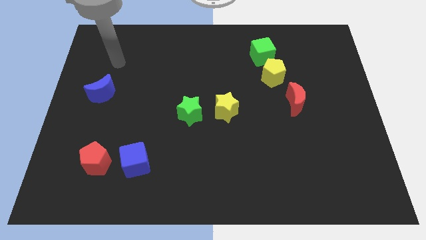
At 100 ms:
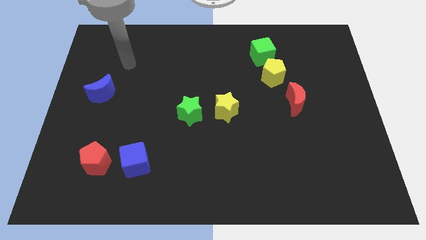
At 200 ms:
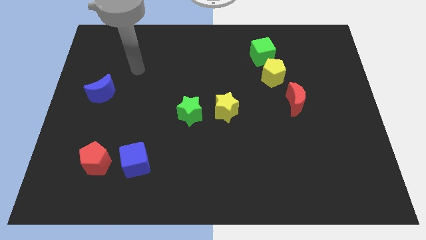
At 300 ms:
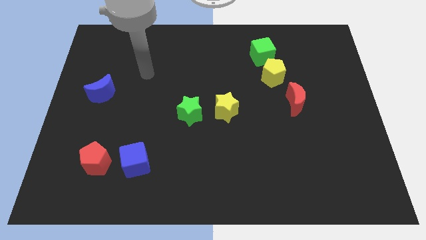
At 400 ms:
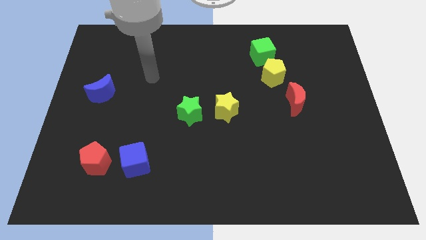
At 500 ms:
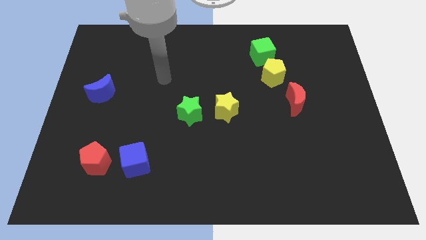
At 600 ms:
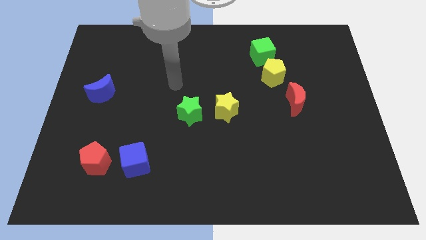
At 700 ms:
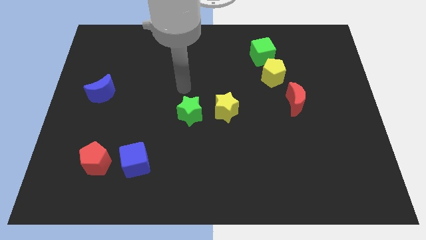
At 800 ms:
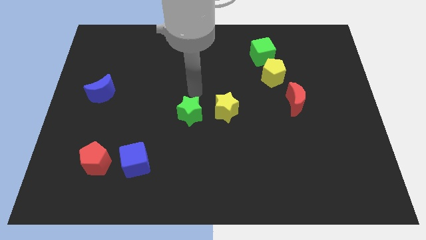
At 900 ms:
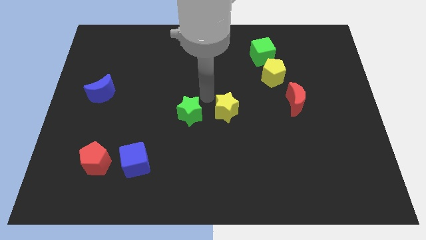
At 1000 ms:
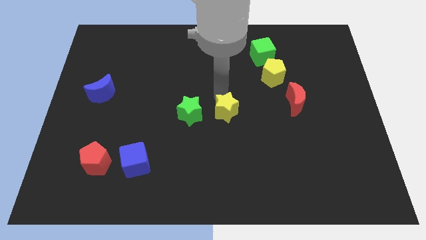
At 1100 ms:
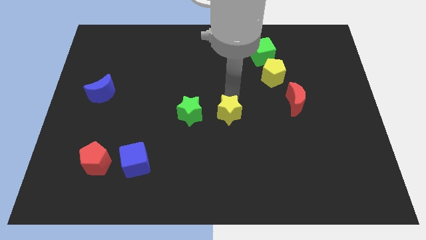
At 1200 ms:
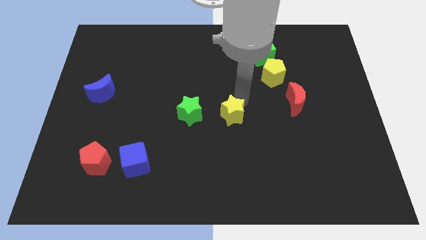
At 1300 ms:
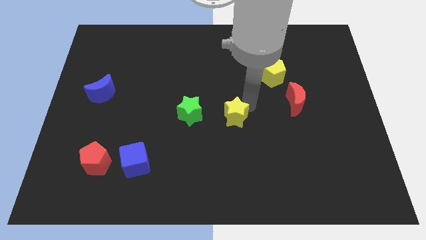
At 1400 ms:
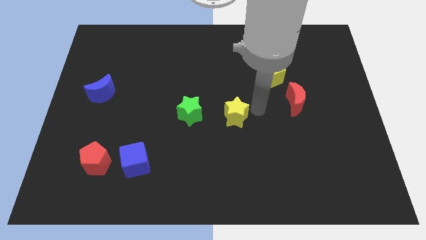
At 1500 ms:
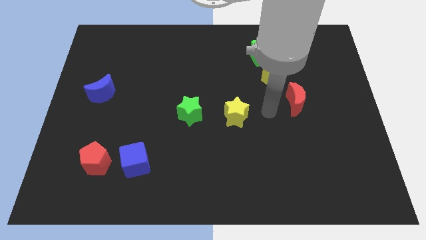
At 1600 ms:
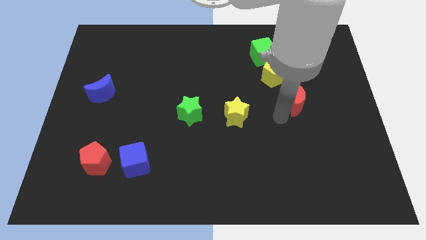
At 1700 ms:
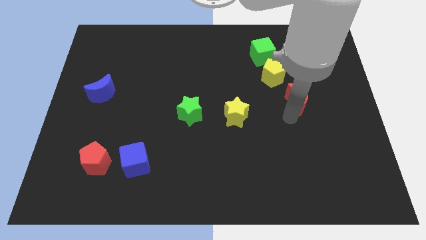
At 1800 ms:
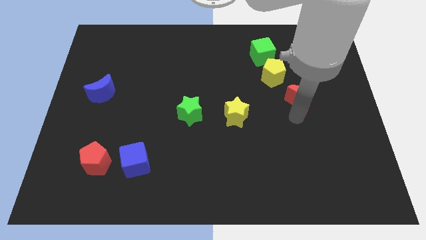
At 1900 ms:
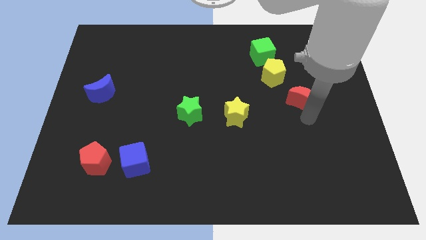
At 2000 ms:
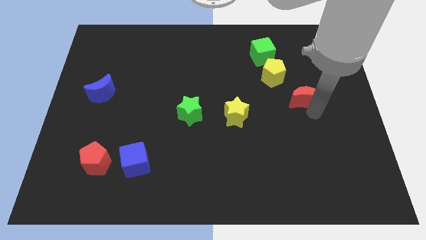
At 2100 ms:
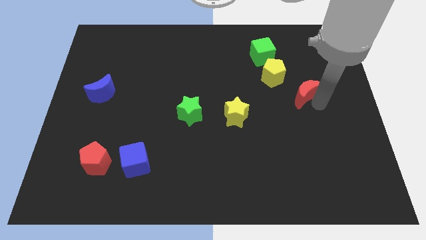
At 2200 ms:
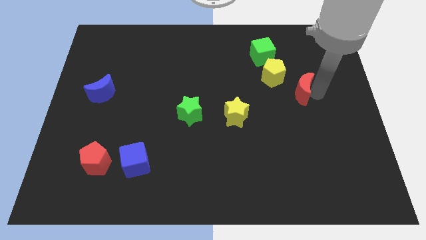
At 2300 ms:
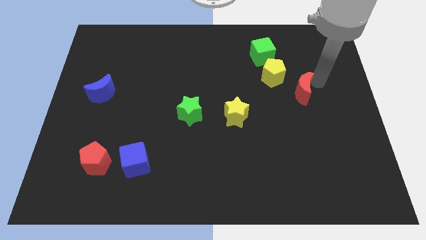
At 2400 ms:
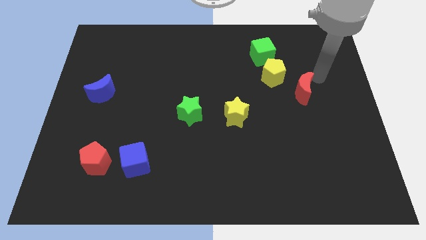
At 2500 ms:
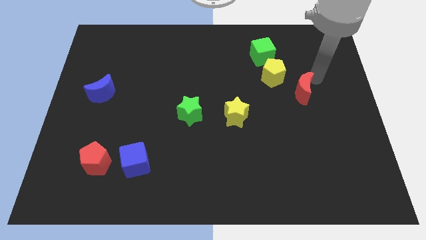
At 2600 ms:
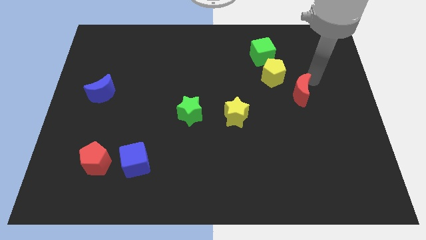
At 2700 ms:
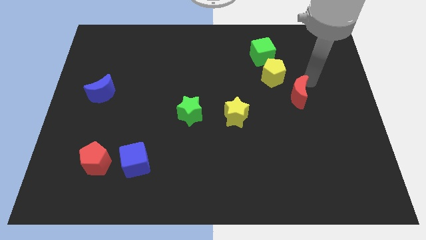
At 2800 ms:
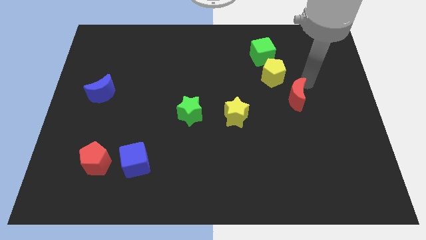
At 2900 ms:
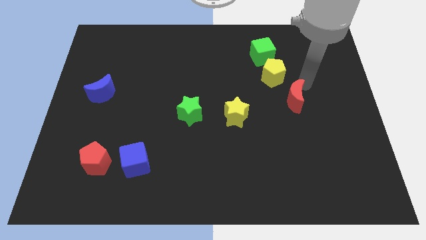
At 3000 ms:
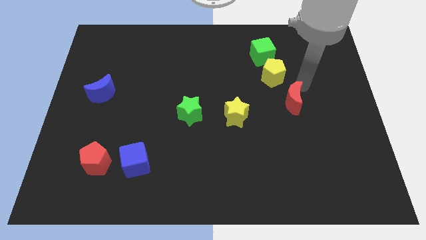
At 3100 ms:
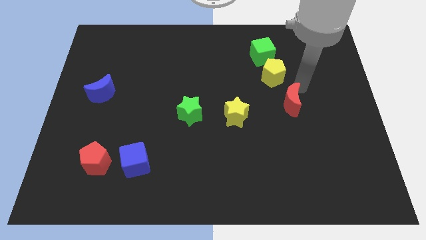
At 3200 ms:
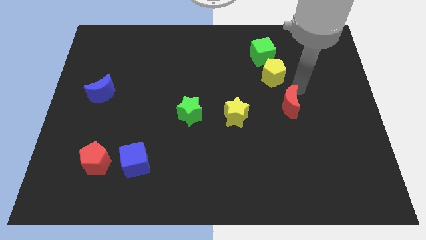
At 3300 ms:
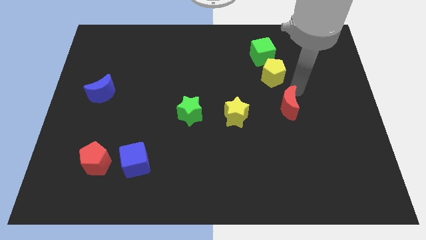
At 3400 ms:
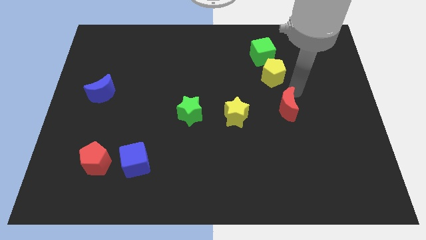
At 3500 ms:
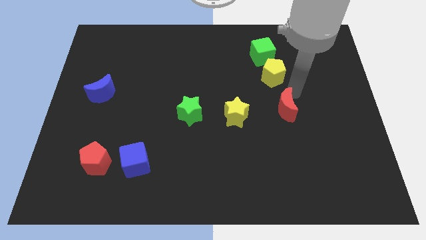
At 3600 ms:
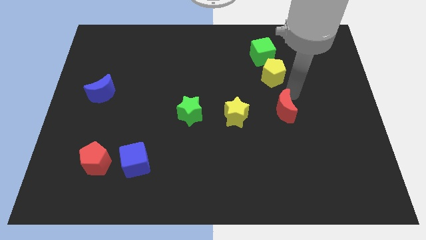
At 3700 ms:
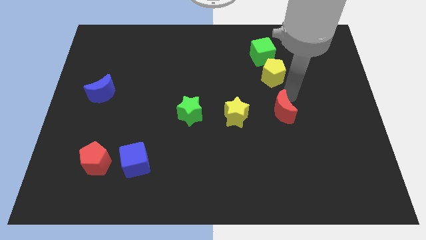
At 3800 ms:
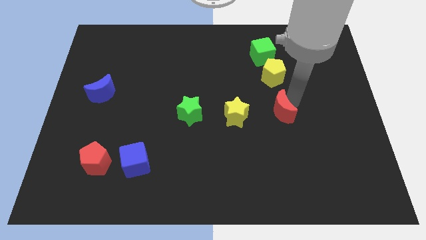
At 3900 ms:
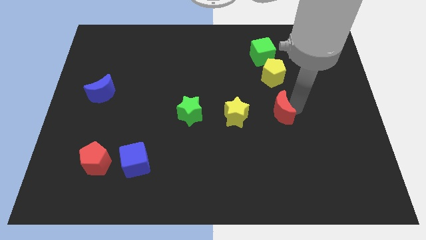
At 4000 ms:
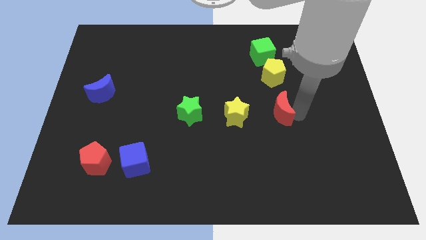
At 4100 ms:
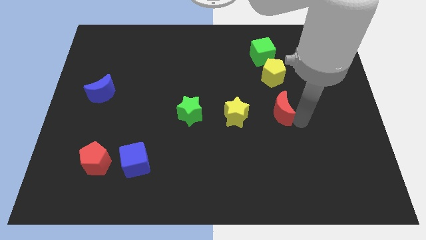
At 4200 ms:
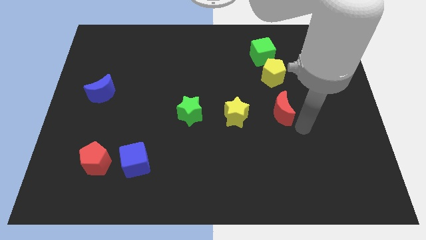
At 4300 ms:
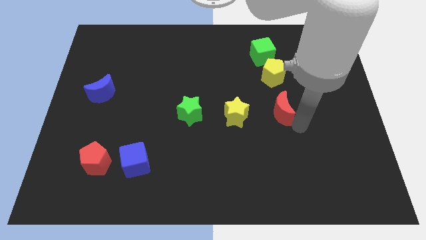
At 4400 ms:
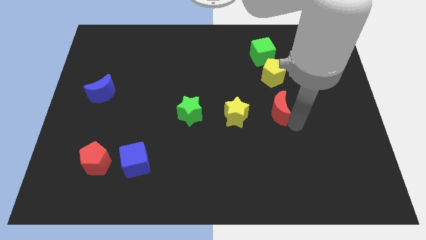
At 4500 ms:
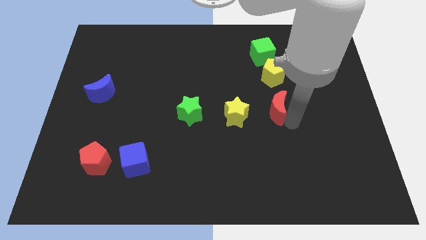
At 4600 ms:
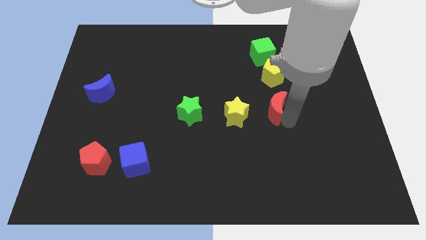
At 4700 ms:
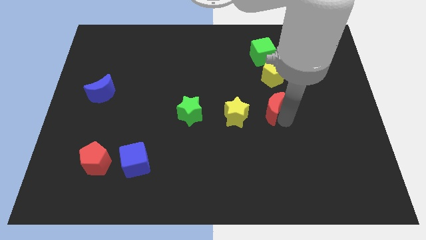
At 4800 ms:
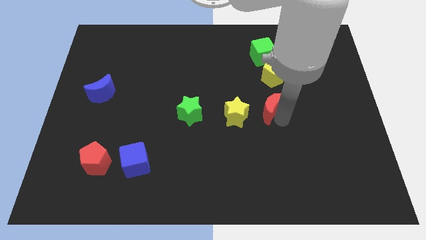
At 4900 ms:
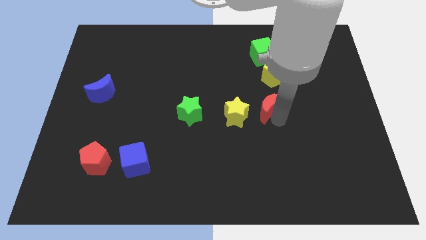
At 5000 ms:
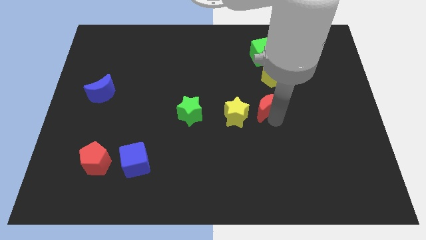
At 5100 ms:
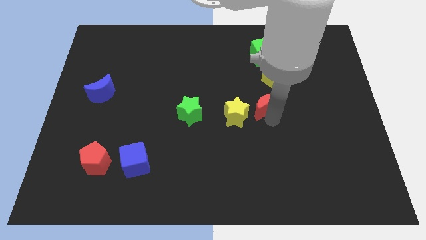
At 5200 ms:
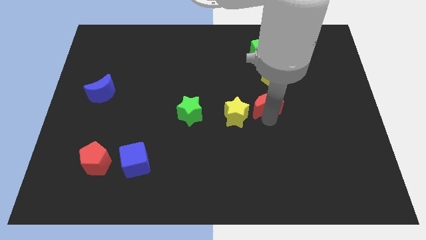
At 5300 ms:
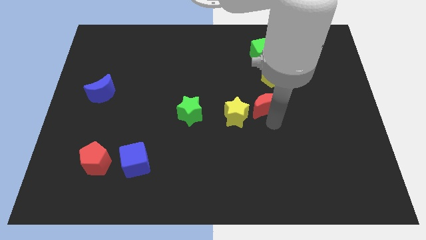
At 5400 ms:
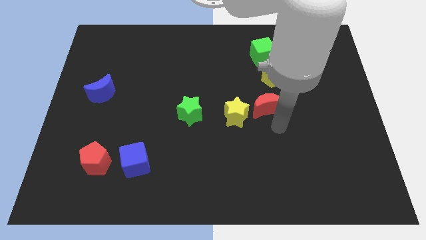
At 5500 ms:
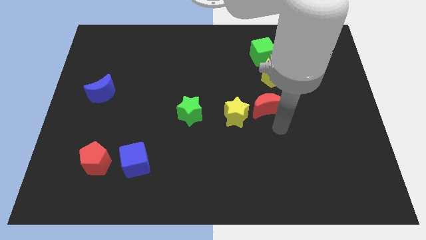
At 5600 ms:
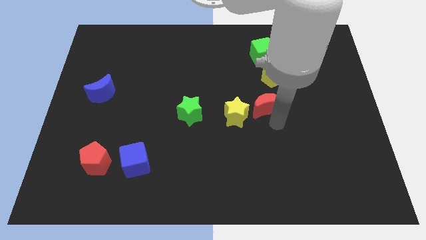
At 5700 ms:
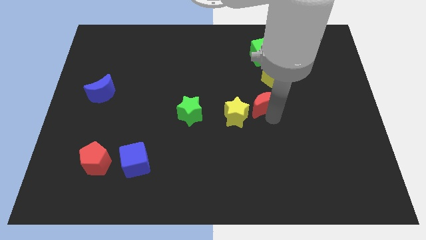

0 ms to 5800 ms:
put the red moon diagonally down and to the left of the yellow pentagon

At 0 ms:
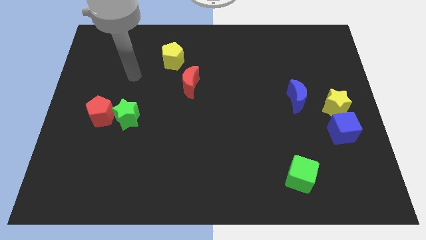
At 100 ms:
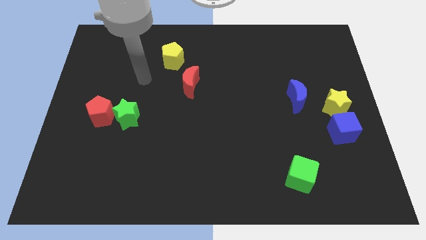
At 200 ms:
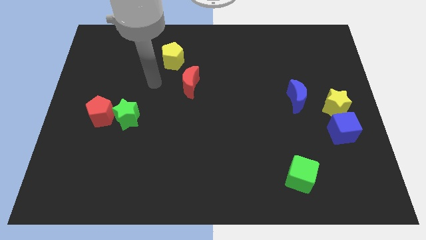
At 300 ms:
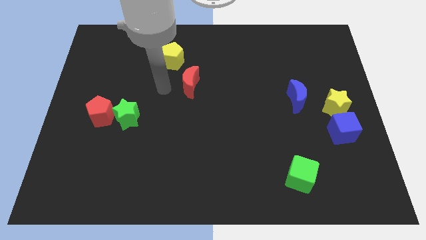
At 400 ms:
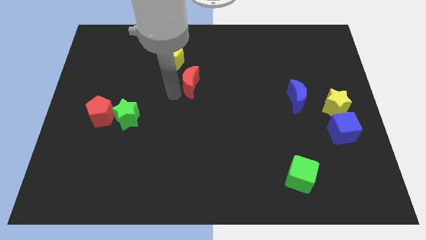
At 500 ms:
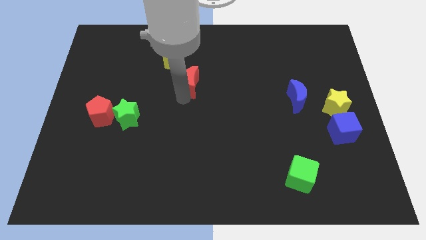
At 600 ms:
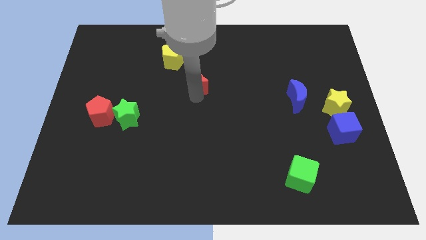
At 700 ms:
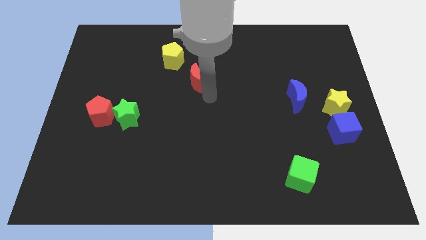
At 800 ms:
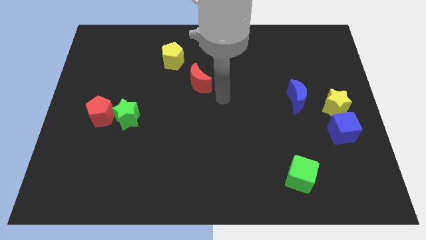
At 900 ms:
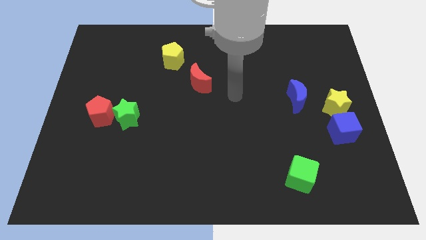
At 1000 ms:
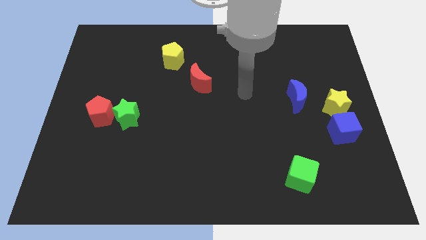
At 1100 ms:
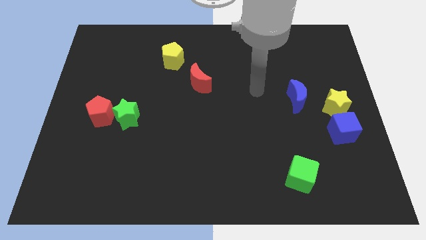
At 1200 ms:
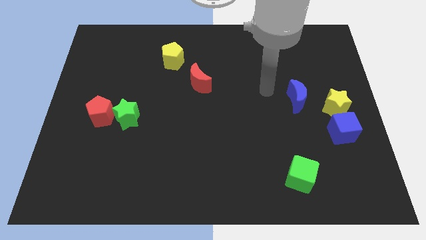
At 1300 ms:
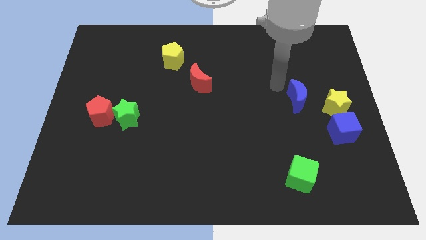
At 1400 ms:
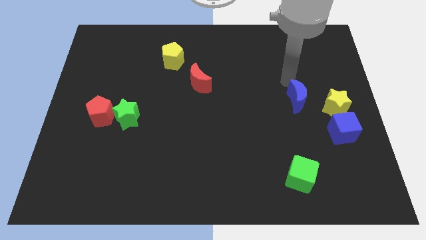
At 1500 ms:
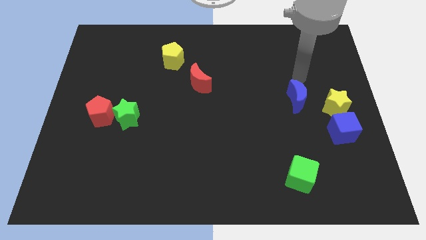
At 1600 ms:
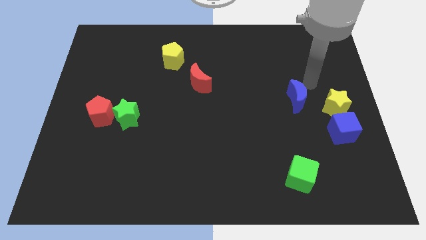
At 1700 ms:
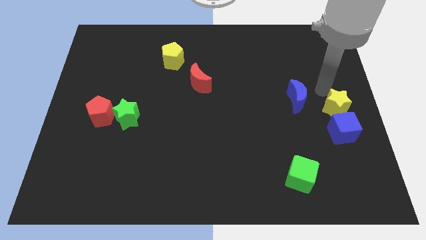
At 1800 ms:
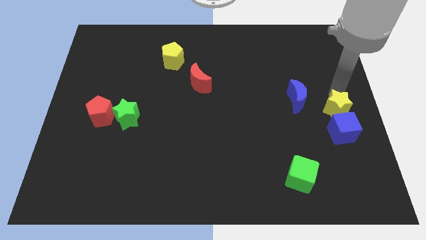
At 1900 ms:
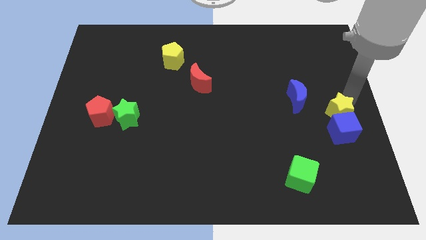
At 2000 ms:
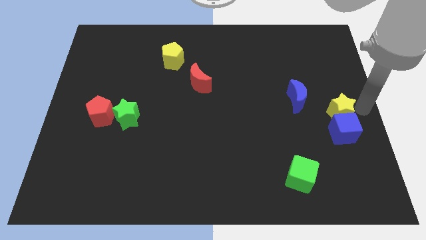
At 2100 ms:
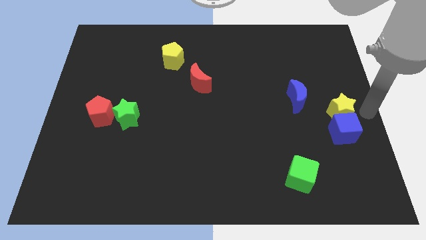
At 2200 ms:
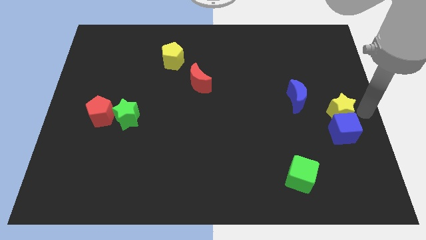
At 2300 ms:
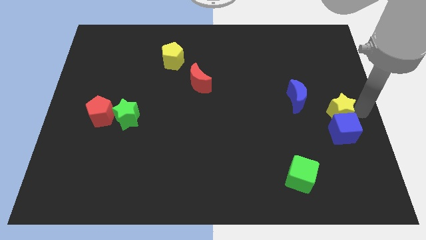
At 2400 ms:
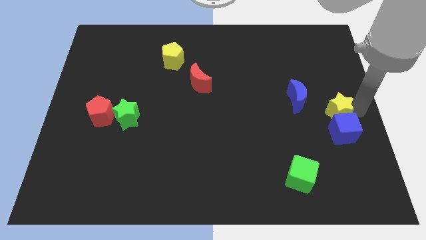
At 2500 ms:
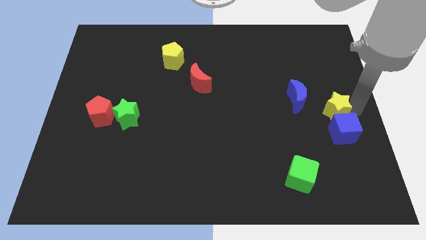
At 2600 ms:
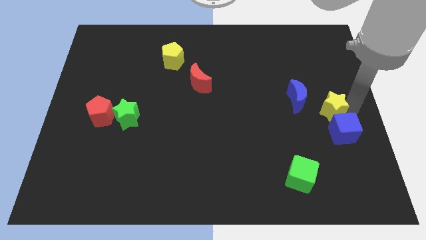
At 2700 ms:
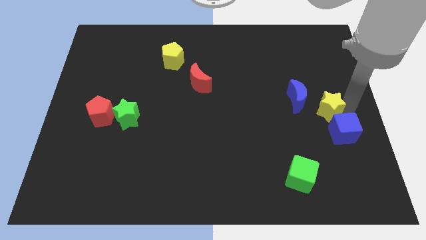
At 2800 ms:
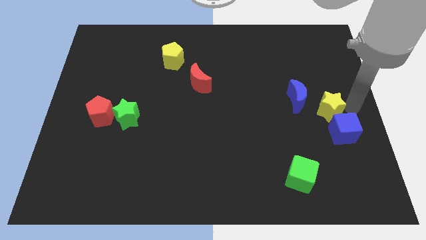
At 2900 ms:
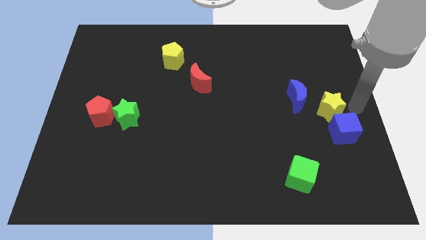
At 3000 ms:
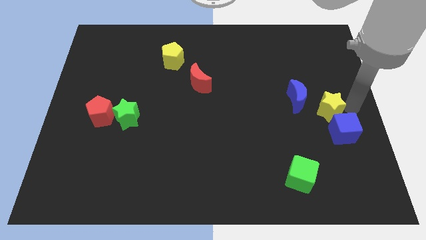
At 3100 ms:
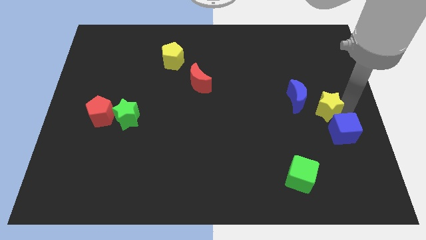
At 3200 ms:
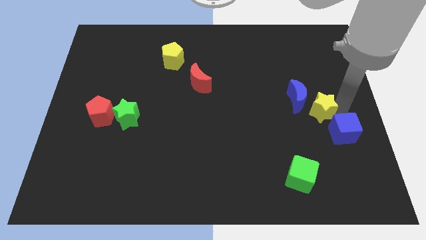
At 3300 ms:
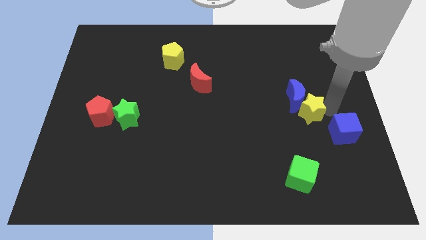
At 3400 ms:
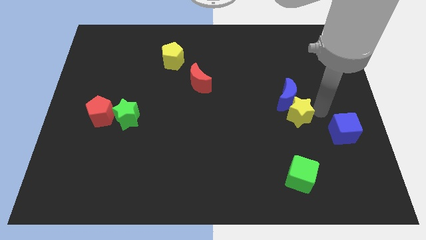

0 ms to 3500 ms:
put the yellow star diagonally down and to the left of the blue moon
